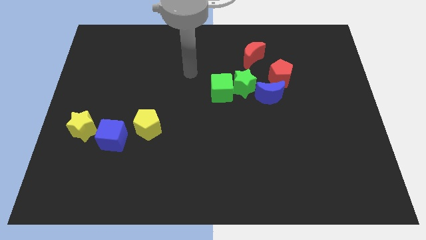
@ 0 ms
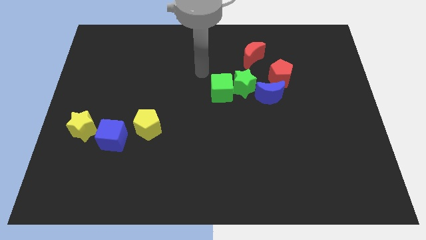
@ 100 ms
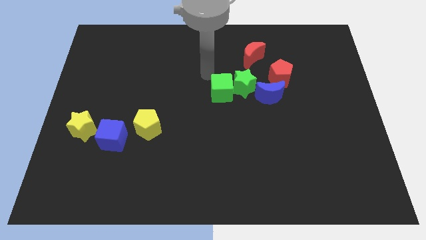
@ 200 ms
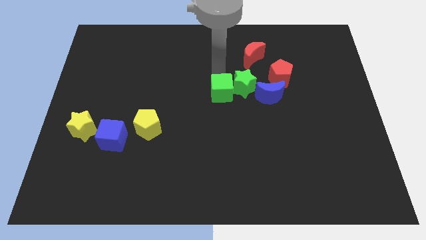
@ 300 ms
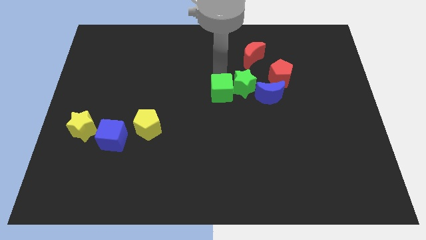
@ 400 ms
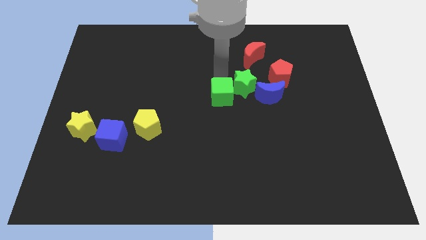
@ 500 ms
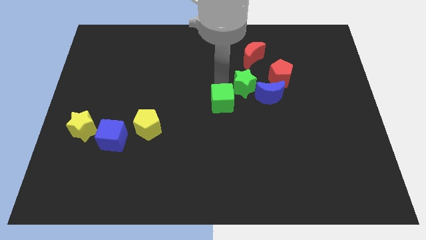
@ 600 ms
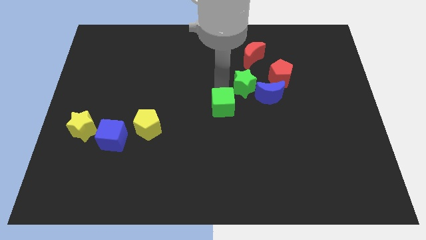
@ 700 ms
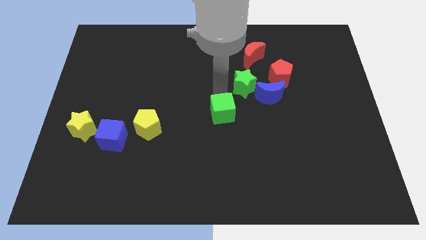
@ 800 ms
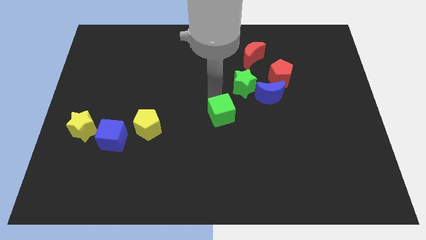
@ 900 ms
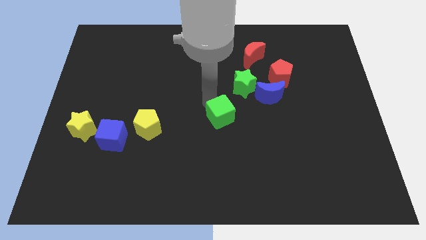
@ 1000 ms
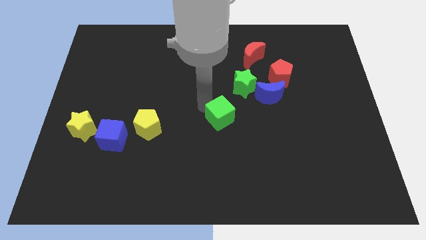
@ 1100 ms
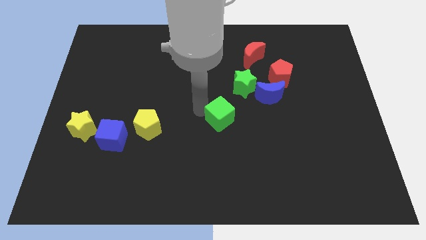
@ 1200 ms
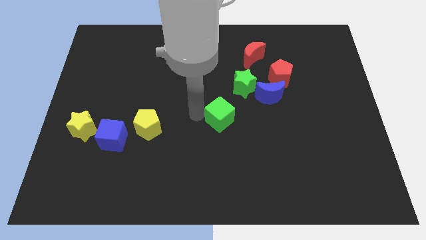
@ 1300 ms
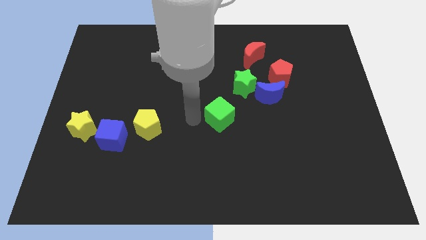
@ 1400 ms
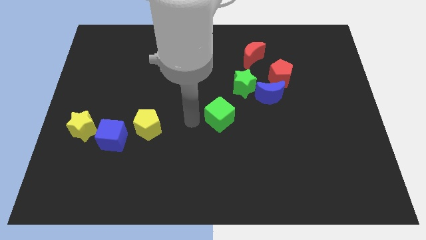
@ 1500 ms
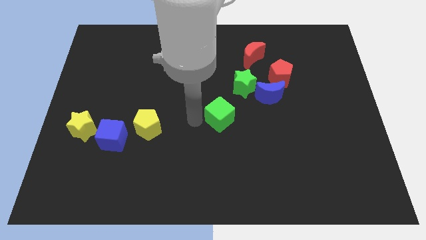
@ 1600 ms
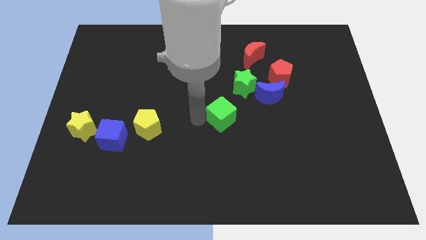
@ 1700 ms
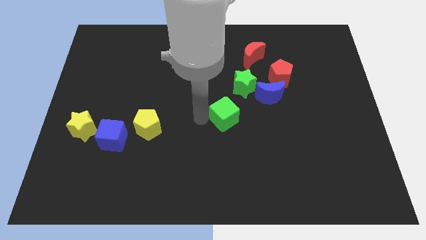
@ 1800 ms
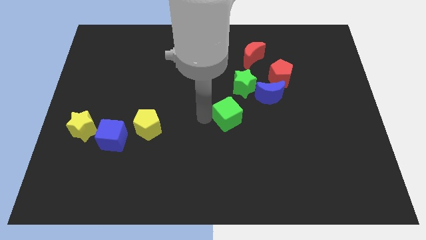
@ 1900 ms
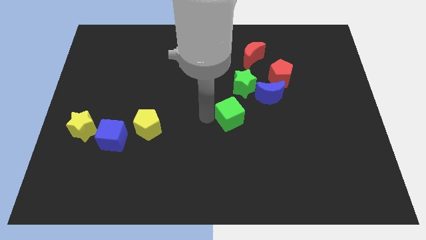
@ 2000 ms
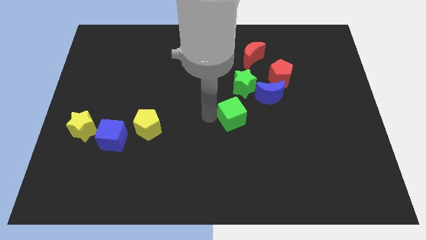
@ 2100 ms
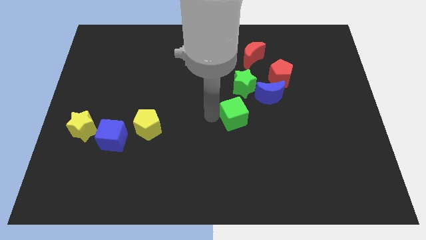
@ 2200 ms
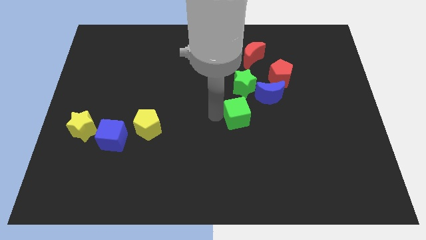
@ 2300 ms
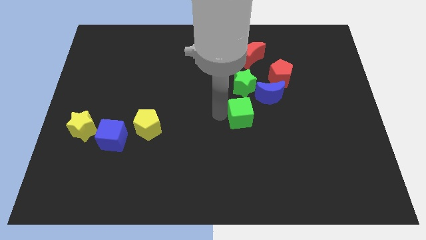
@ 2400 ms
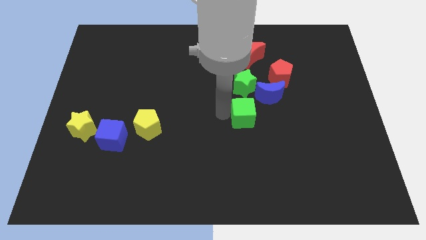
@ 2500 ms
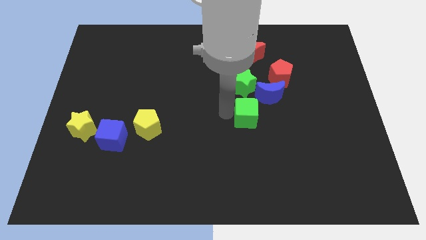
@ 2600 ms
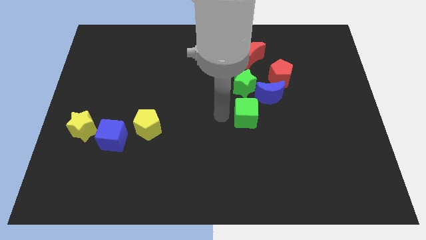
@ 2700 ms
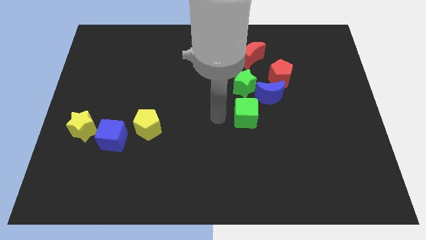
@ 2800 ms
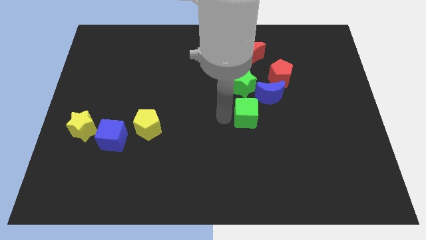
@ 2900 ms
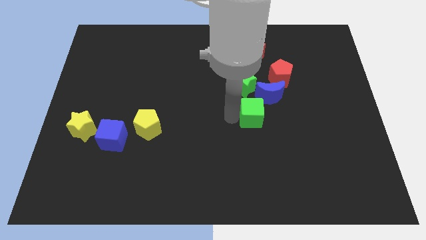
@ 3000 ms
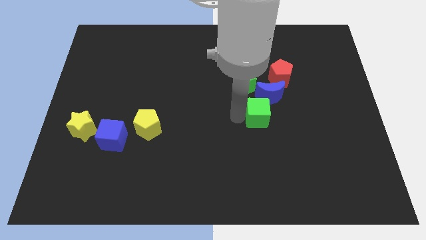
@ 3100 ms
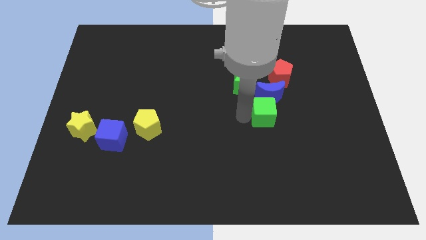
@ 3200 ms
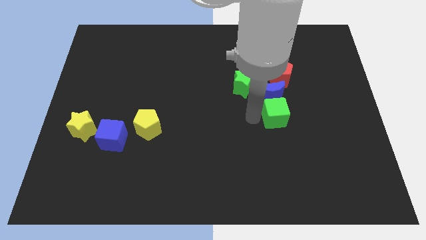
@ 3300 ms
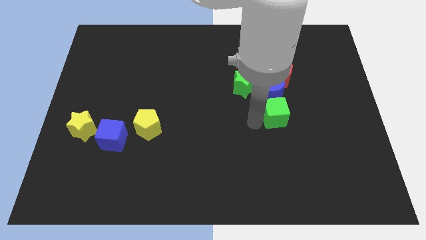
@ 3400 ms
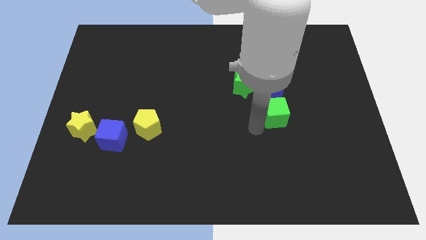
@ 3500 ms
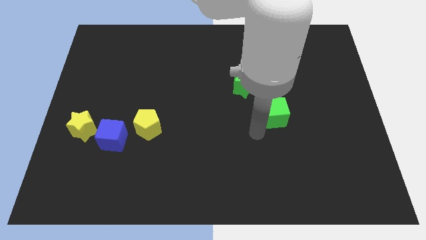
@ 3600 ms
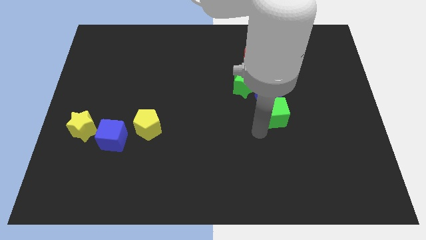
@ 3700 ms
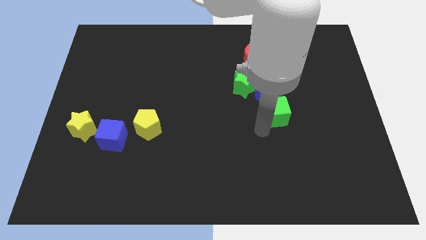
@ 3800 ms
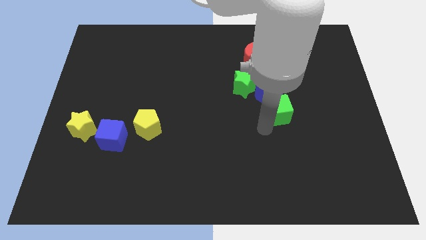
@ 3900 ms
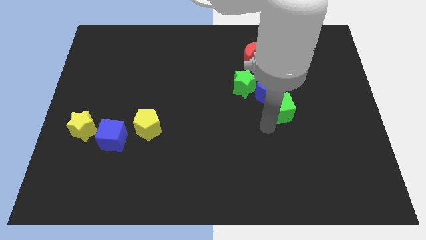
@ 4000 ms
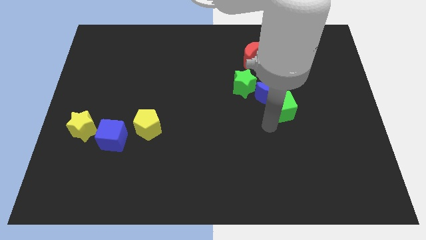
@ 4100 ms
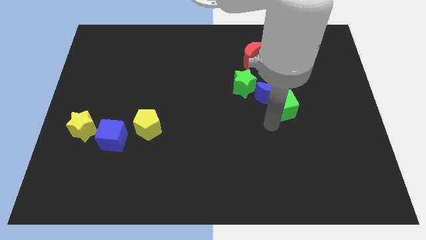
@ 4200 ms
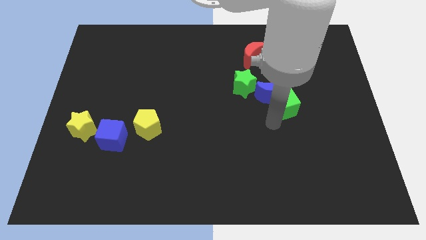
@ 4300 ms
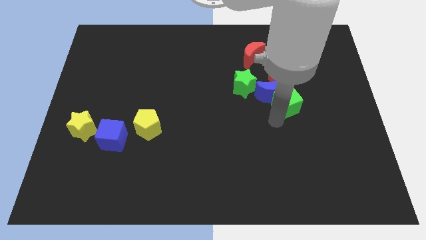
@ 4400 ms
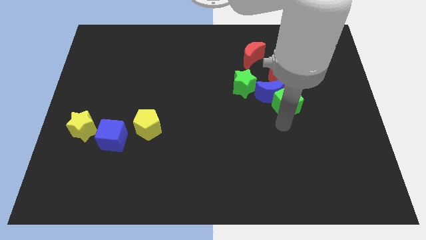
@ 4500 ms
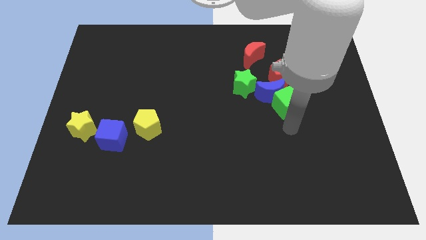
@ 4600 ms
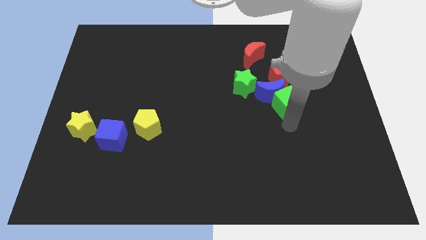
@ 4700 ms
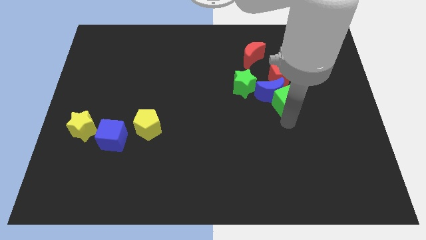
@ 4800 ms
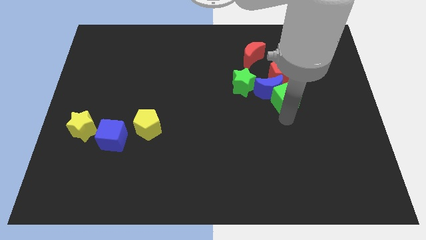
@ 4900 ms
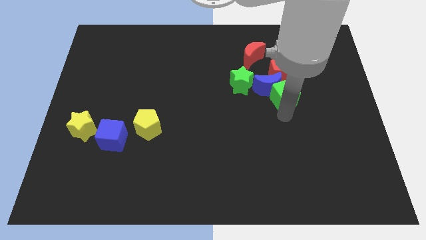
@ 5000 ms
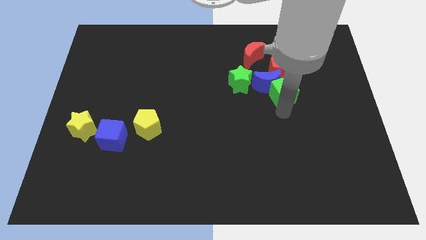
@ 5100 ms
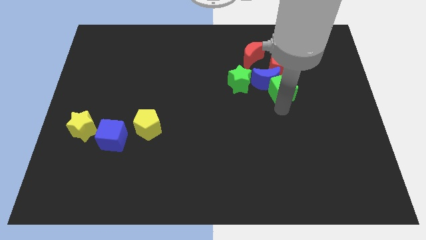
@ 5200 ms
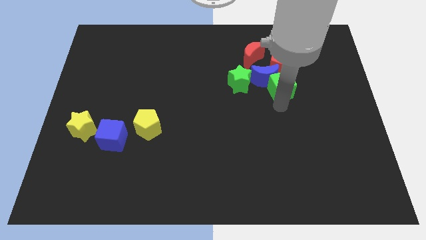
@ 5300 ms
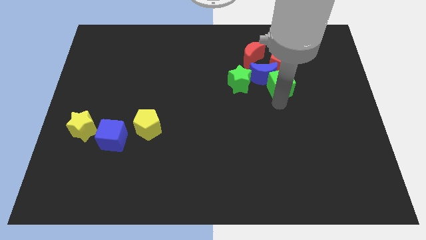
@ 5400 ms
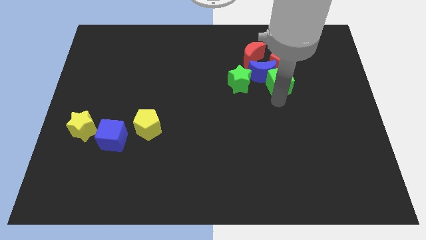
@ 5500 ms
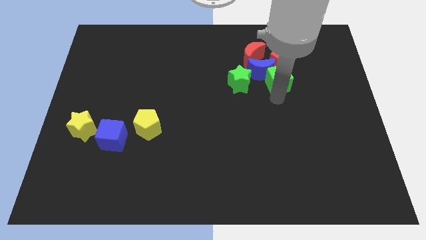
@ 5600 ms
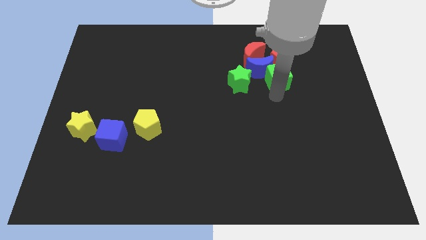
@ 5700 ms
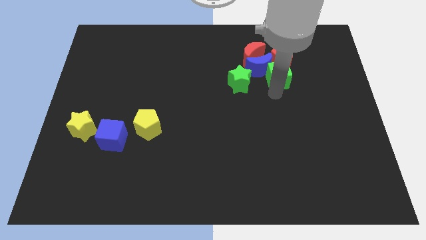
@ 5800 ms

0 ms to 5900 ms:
put the green cube next to the red pentagon
